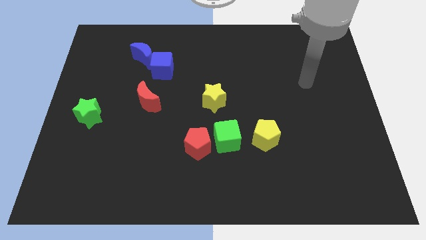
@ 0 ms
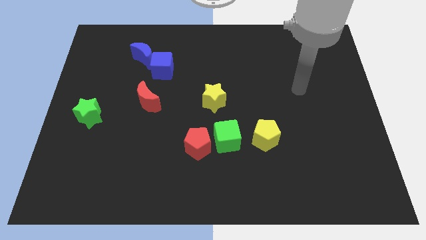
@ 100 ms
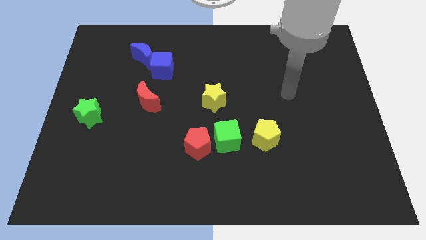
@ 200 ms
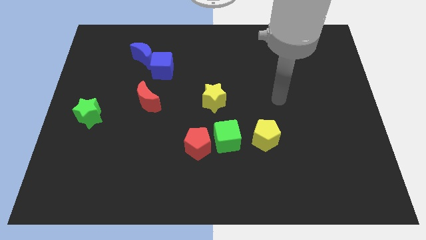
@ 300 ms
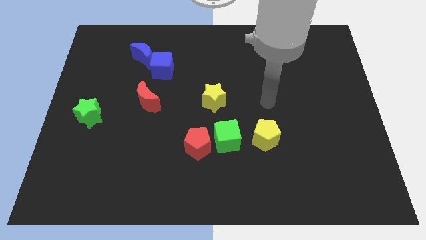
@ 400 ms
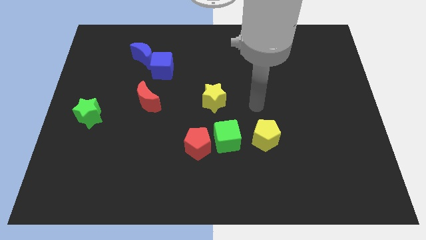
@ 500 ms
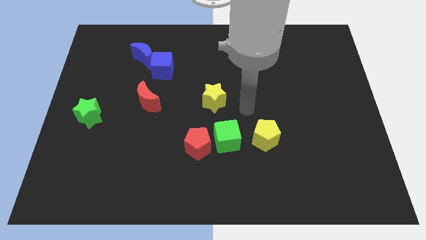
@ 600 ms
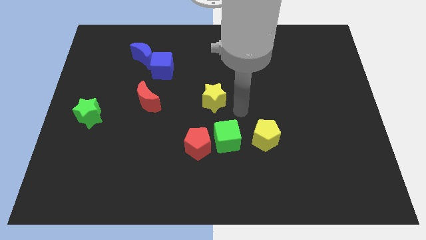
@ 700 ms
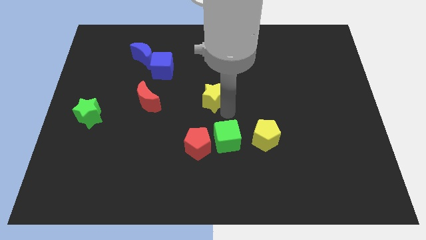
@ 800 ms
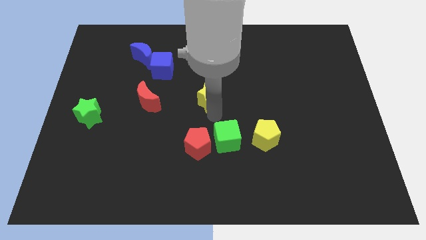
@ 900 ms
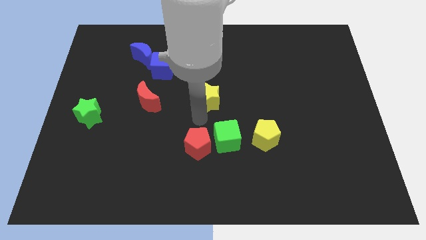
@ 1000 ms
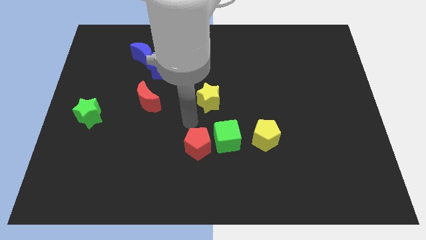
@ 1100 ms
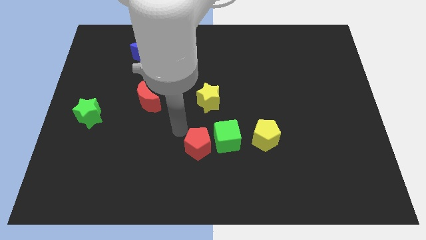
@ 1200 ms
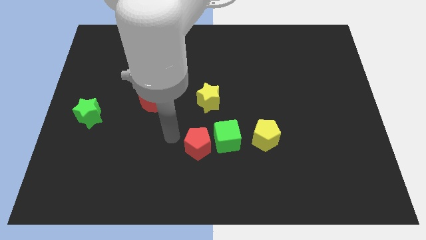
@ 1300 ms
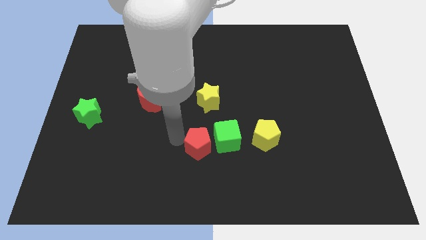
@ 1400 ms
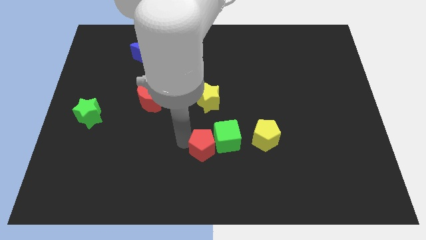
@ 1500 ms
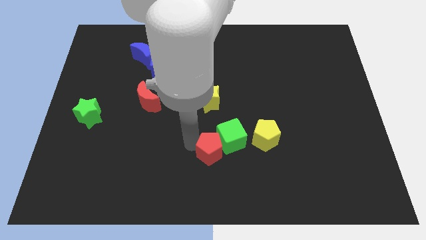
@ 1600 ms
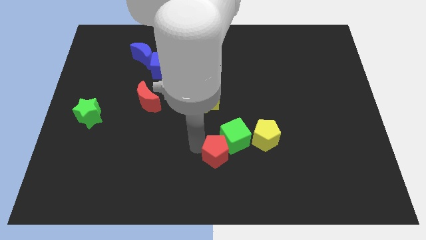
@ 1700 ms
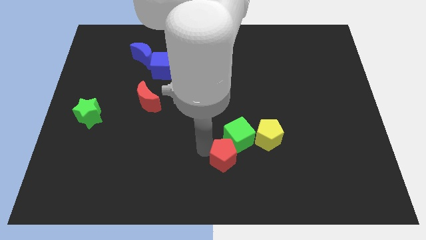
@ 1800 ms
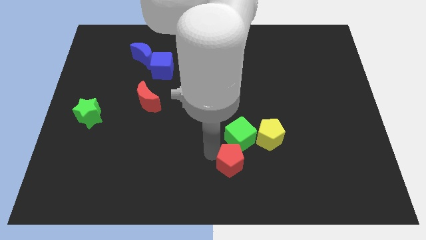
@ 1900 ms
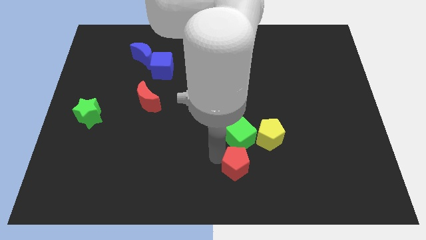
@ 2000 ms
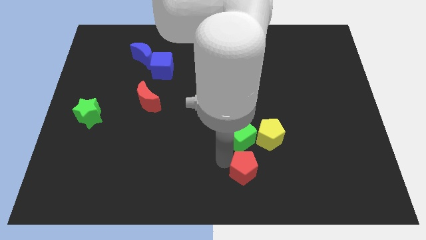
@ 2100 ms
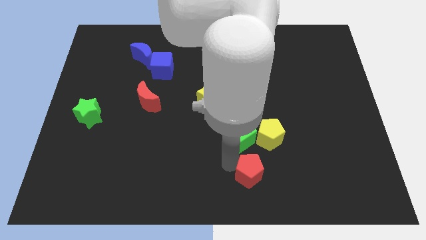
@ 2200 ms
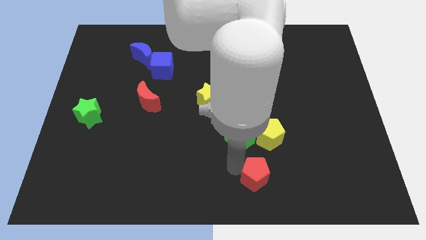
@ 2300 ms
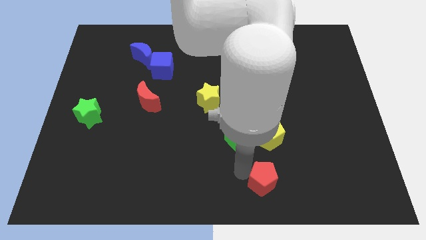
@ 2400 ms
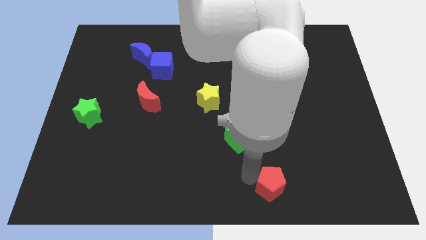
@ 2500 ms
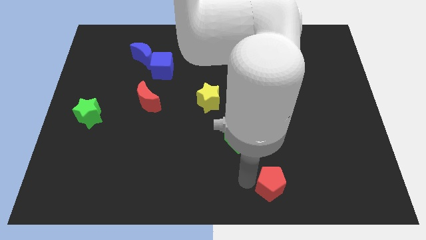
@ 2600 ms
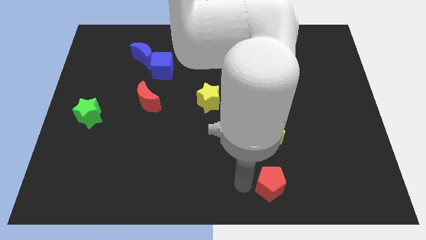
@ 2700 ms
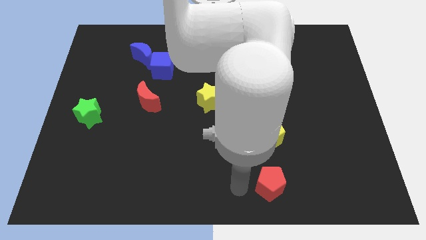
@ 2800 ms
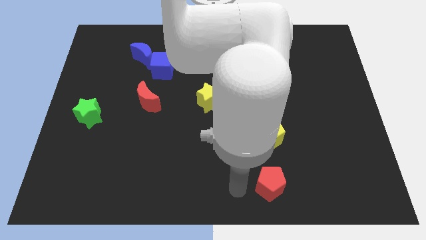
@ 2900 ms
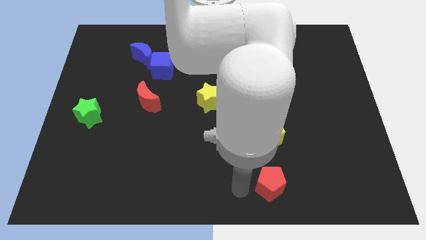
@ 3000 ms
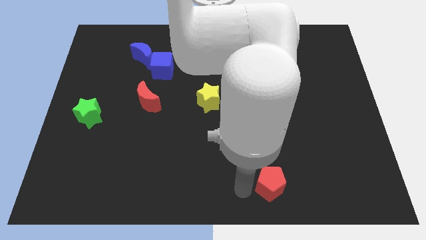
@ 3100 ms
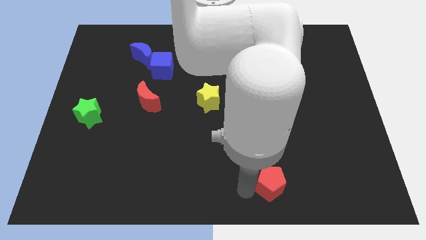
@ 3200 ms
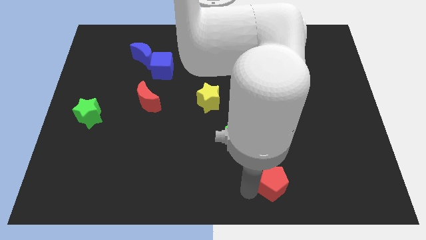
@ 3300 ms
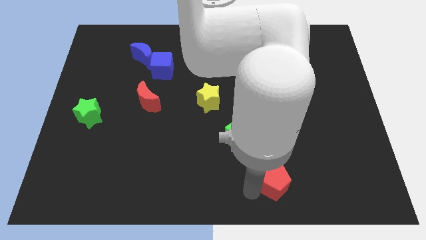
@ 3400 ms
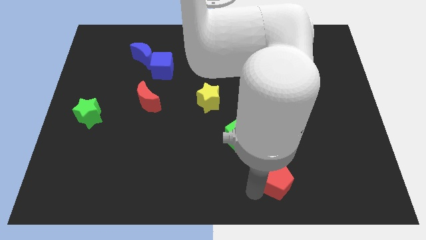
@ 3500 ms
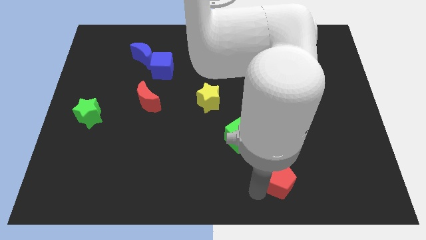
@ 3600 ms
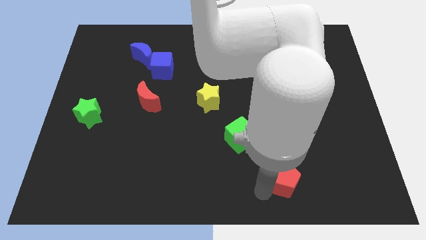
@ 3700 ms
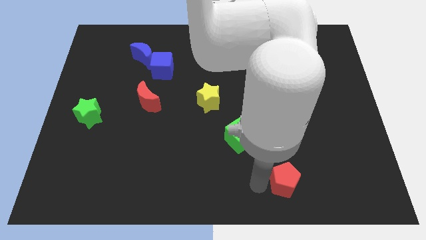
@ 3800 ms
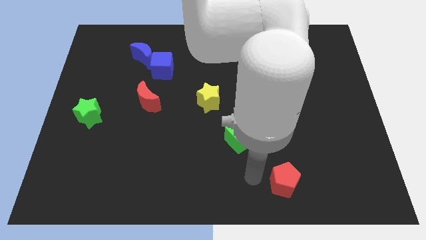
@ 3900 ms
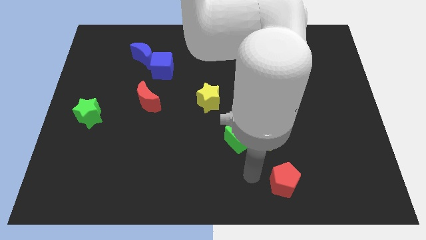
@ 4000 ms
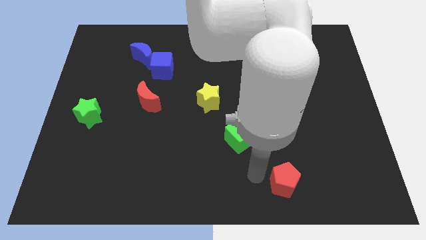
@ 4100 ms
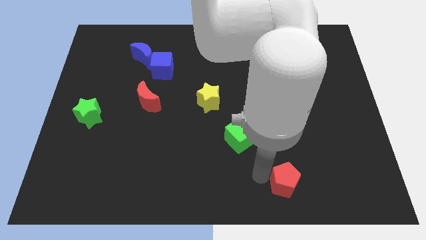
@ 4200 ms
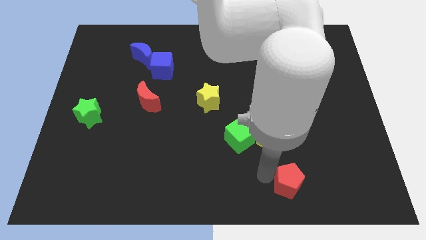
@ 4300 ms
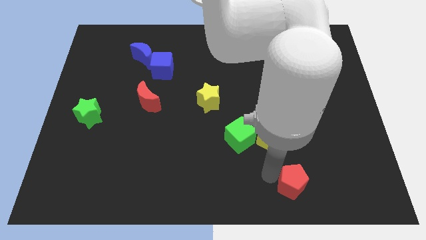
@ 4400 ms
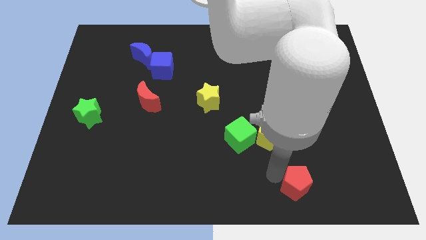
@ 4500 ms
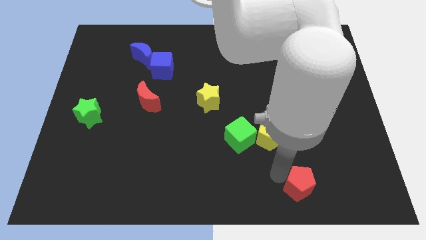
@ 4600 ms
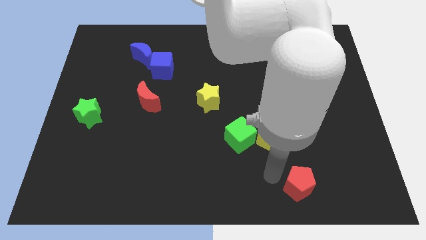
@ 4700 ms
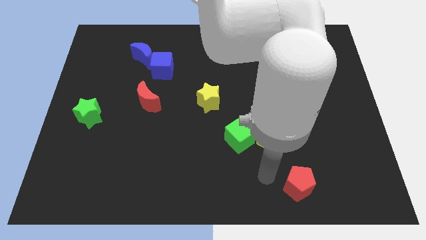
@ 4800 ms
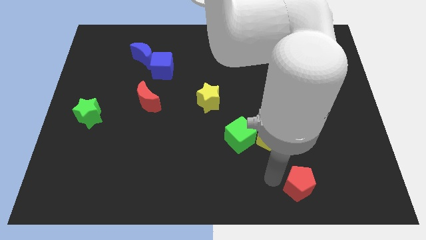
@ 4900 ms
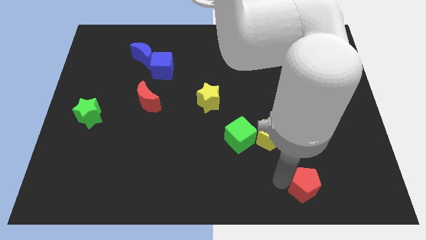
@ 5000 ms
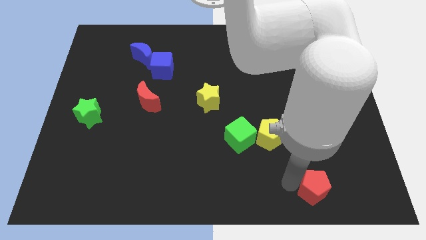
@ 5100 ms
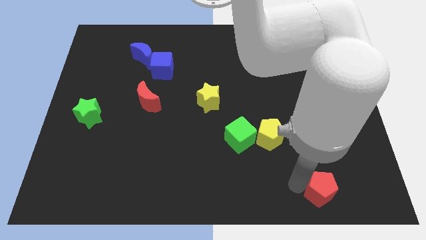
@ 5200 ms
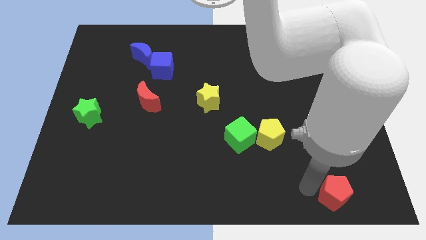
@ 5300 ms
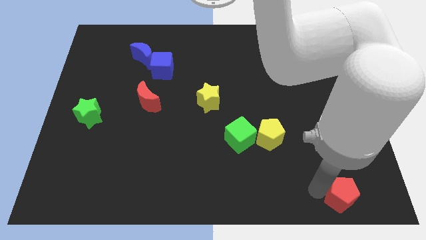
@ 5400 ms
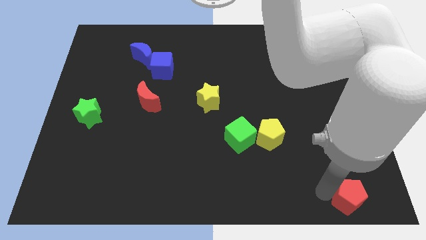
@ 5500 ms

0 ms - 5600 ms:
slide the red pentagon to the bottom right corner

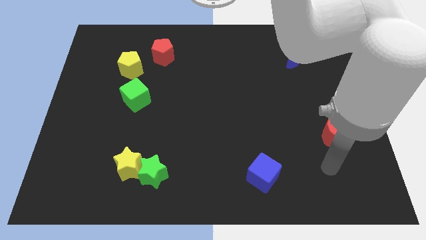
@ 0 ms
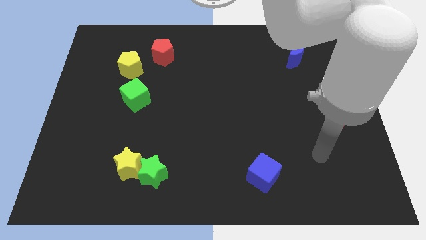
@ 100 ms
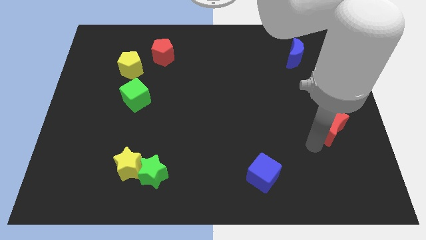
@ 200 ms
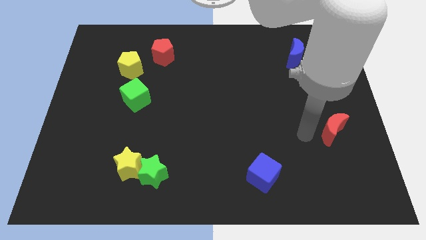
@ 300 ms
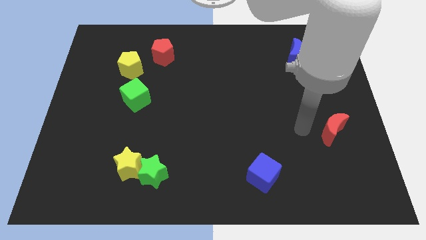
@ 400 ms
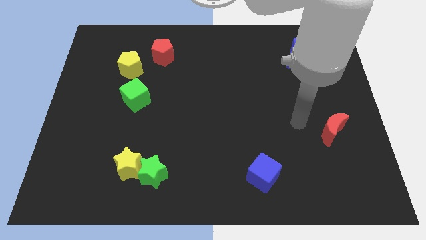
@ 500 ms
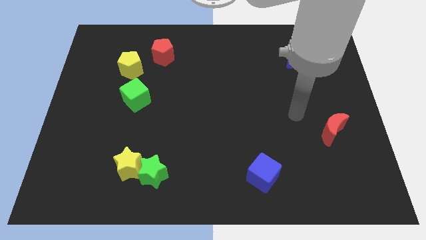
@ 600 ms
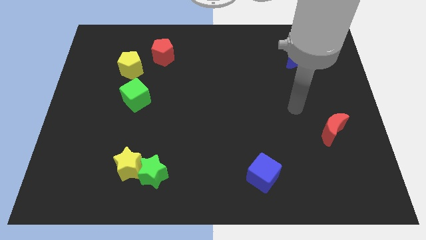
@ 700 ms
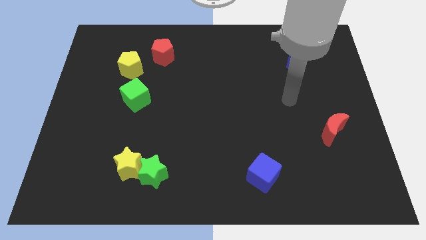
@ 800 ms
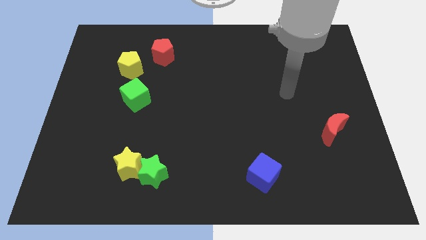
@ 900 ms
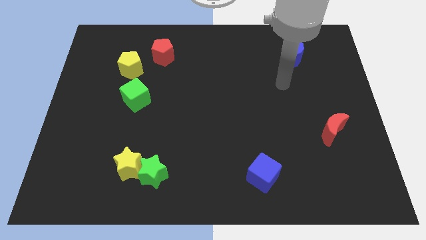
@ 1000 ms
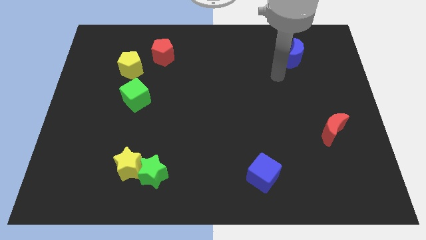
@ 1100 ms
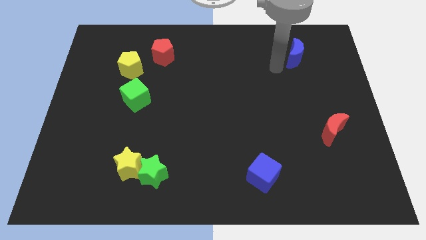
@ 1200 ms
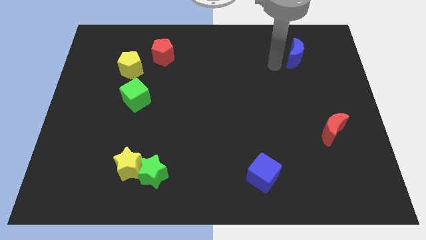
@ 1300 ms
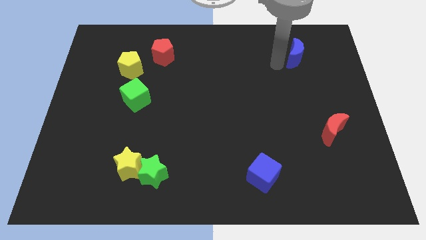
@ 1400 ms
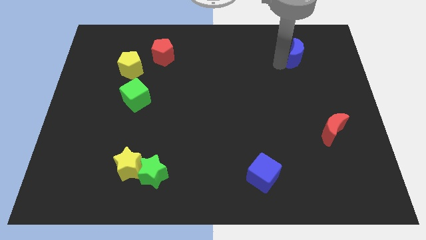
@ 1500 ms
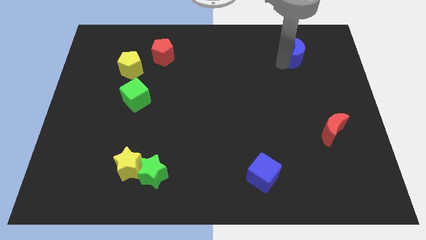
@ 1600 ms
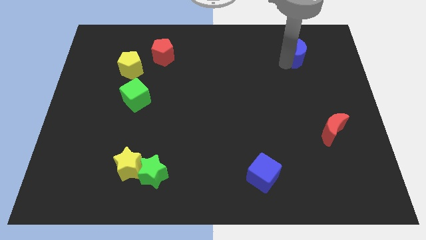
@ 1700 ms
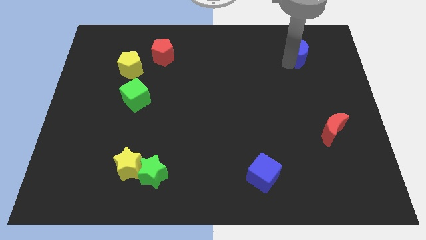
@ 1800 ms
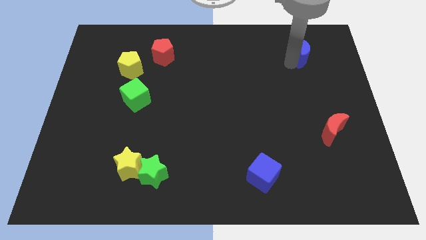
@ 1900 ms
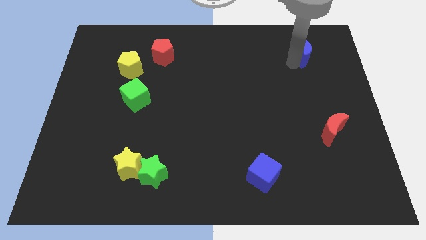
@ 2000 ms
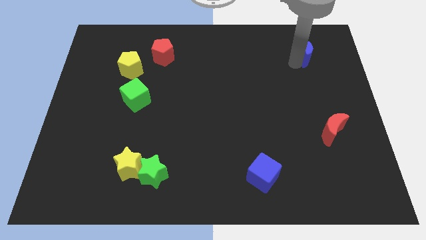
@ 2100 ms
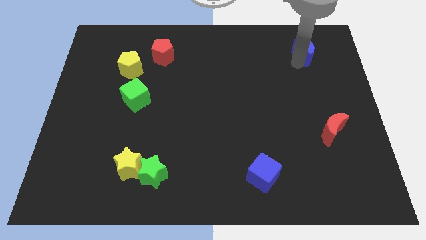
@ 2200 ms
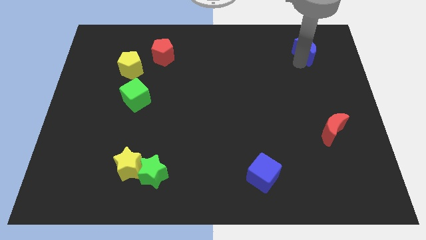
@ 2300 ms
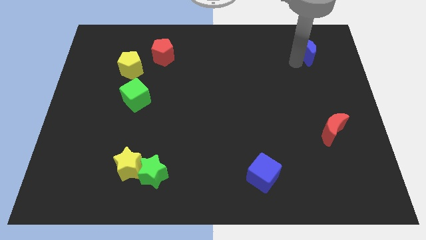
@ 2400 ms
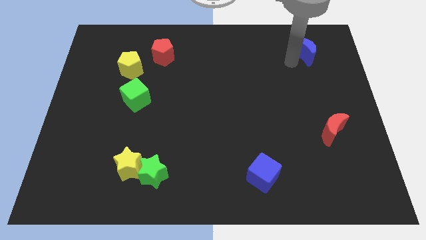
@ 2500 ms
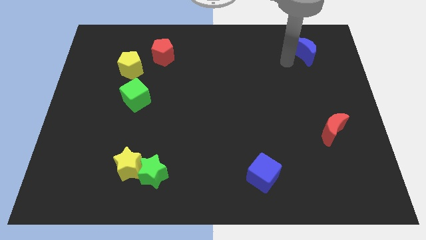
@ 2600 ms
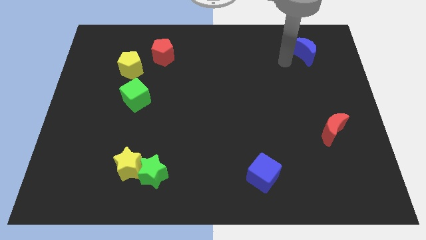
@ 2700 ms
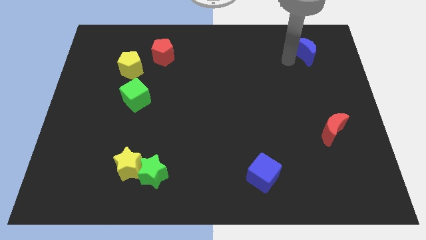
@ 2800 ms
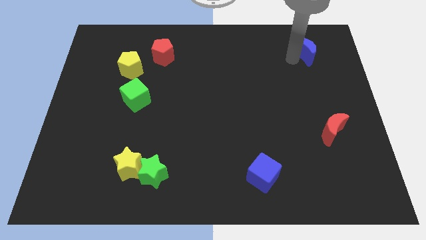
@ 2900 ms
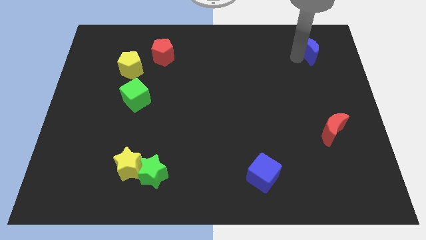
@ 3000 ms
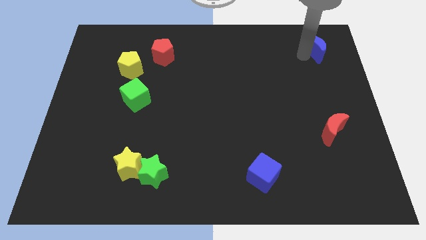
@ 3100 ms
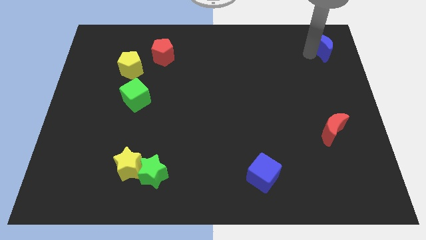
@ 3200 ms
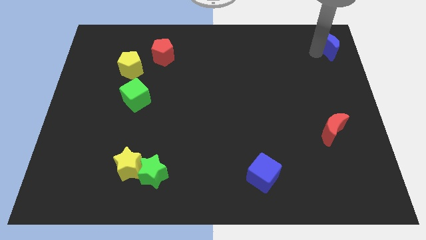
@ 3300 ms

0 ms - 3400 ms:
slide the blue moon to the upper right corner
